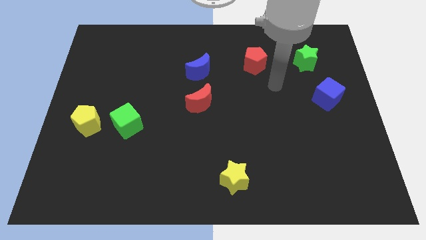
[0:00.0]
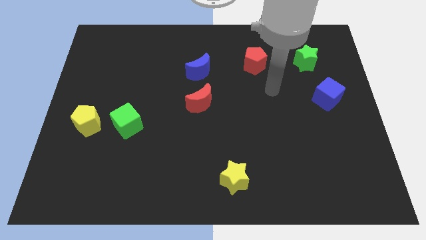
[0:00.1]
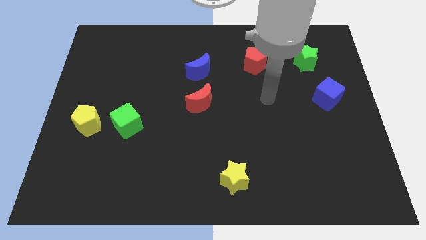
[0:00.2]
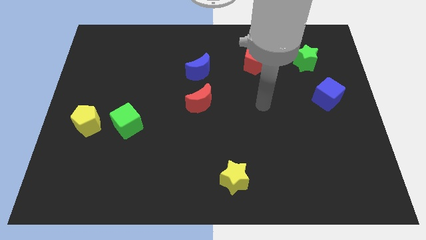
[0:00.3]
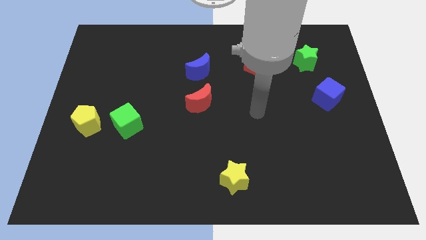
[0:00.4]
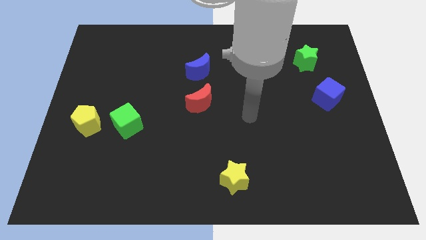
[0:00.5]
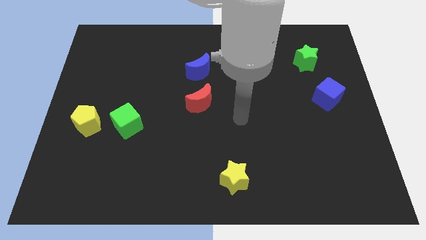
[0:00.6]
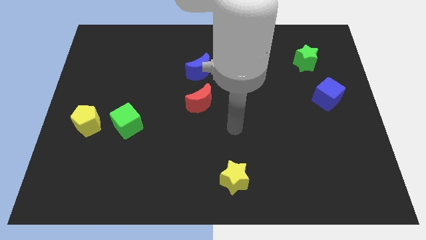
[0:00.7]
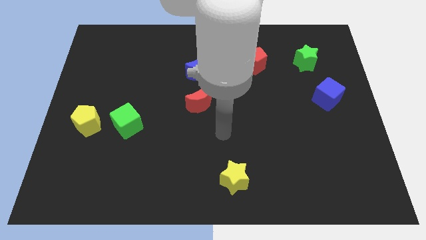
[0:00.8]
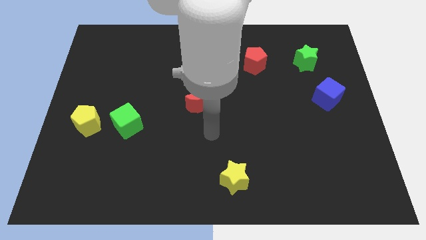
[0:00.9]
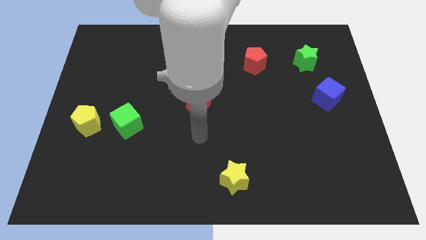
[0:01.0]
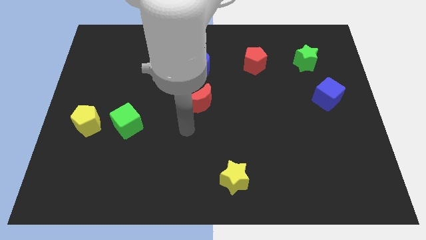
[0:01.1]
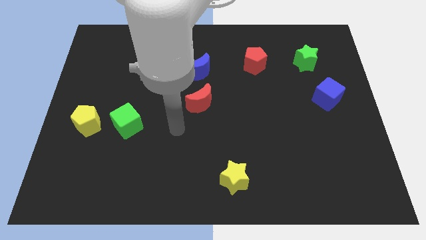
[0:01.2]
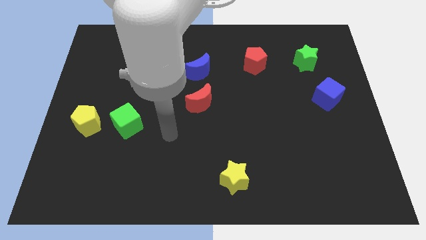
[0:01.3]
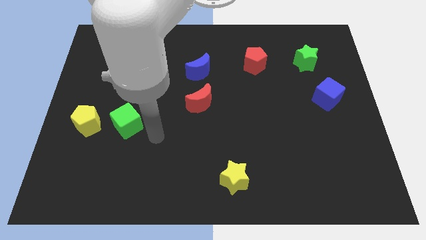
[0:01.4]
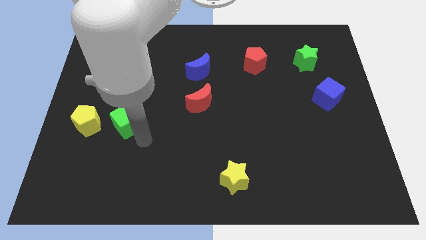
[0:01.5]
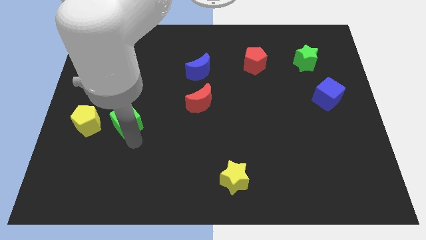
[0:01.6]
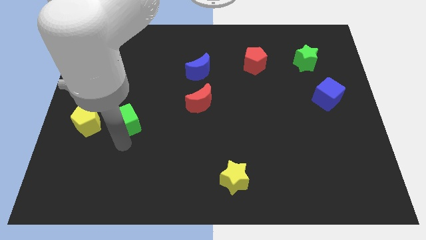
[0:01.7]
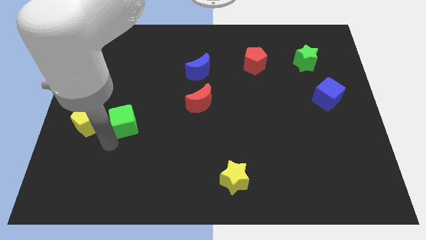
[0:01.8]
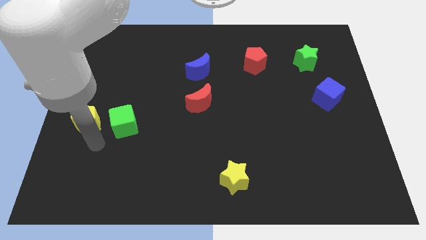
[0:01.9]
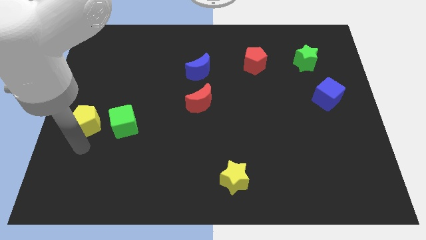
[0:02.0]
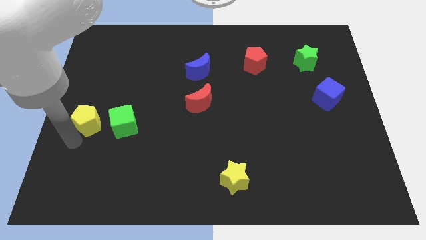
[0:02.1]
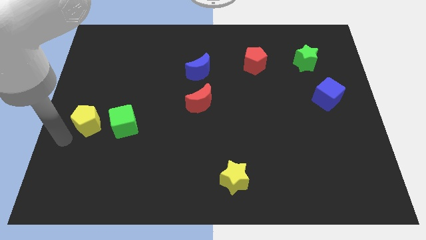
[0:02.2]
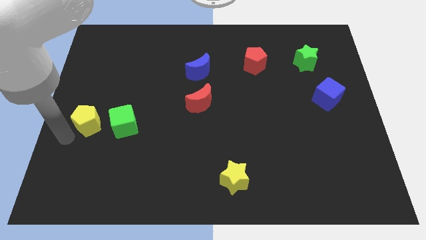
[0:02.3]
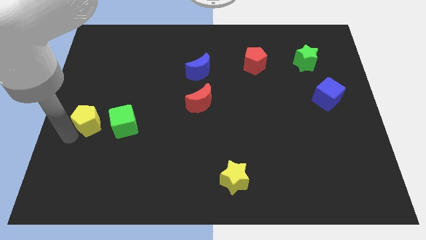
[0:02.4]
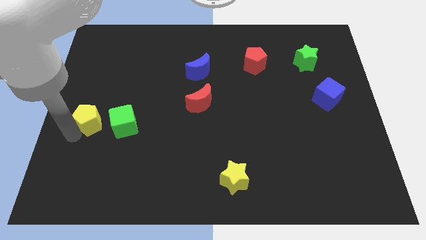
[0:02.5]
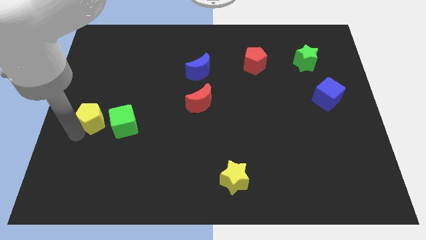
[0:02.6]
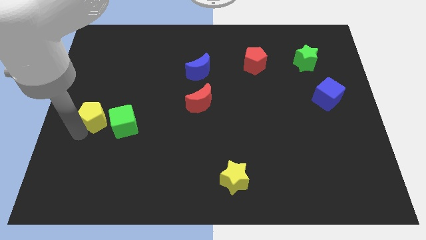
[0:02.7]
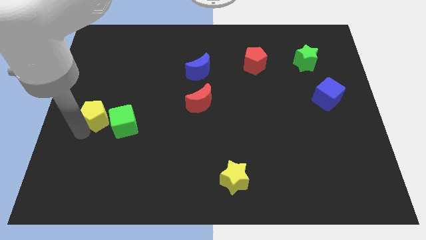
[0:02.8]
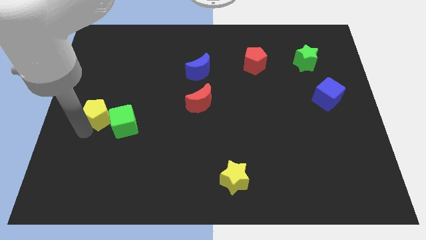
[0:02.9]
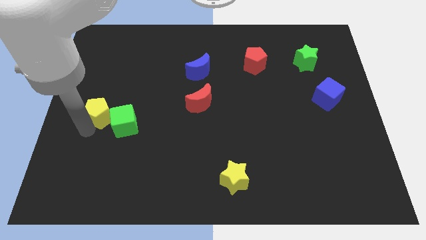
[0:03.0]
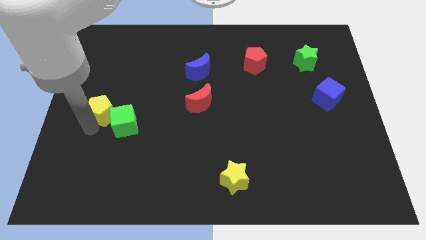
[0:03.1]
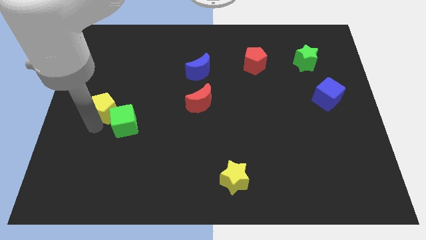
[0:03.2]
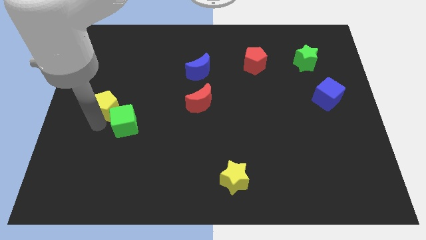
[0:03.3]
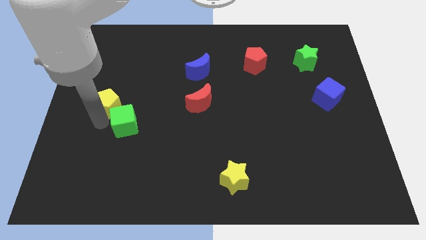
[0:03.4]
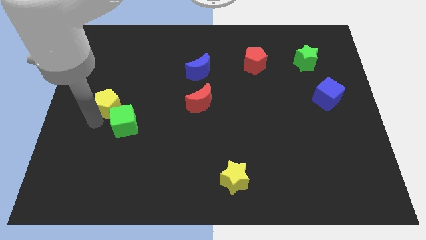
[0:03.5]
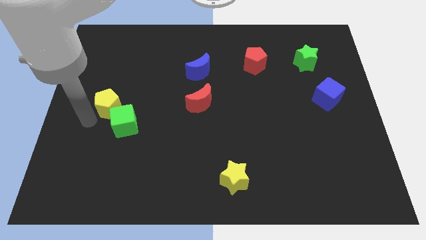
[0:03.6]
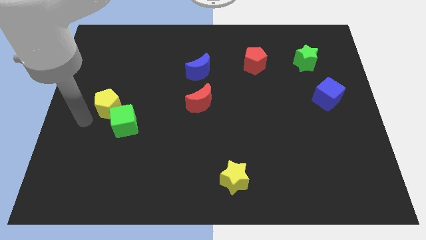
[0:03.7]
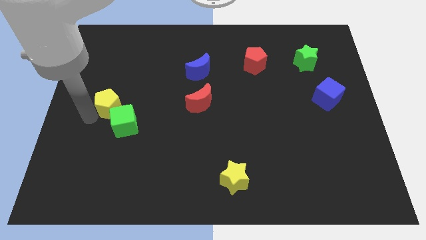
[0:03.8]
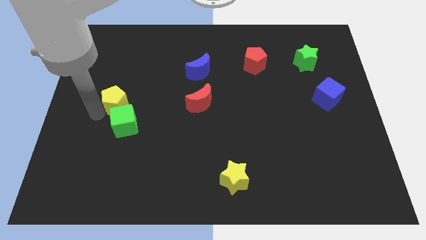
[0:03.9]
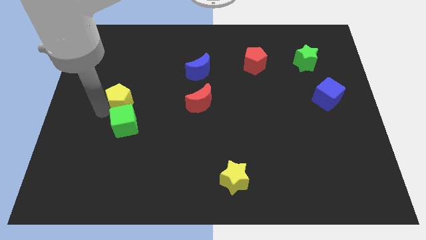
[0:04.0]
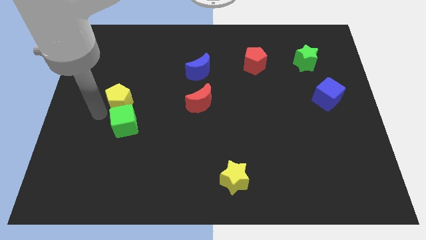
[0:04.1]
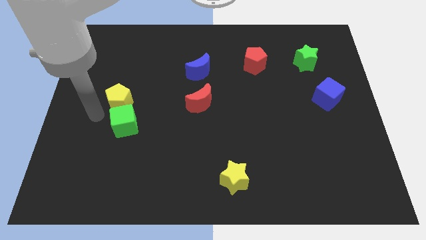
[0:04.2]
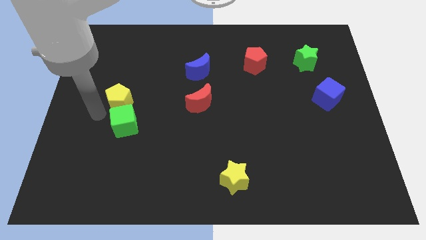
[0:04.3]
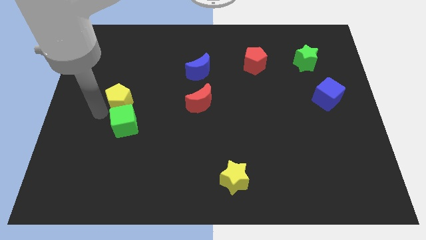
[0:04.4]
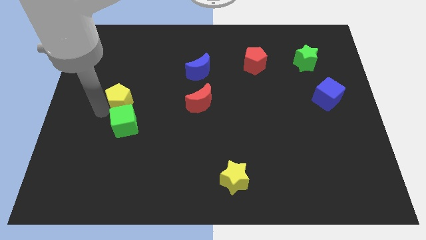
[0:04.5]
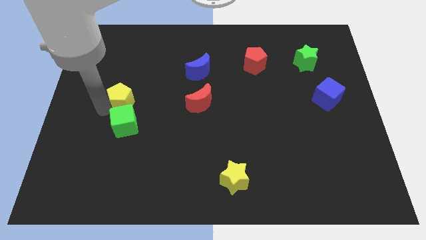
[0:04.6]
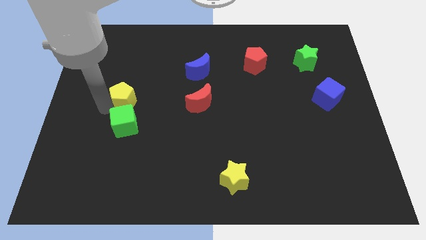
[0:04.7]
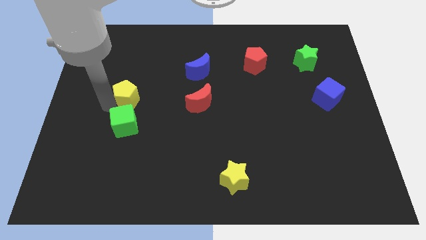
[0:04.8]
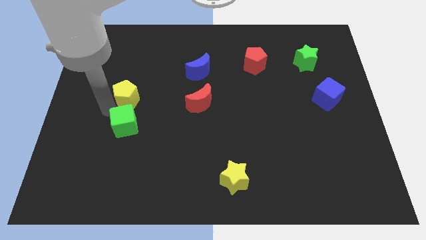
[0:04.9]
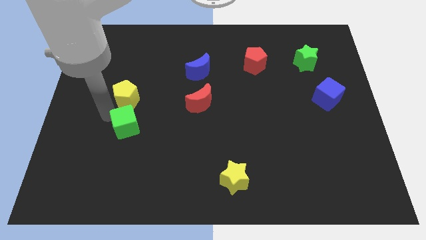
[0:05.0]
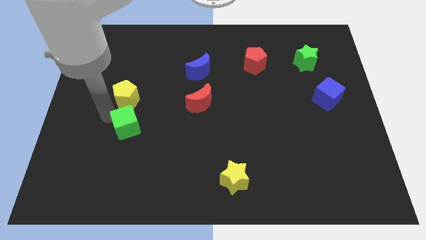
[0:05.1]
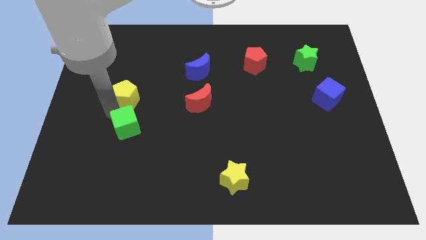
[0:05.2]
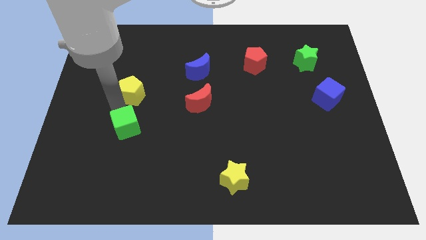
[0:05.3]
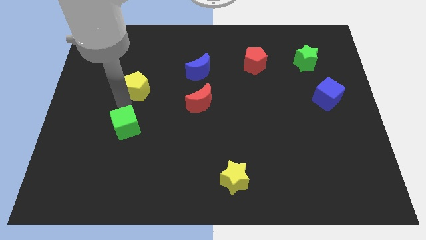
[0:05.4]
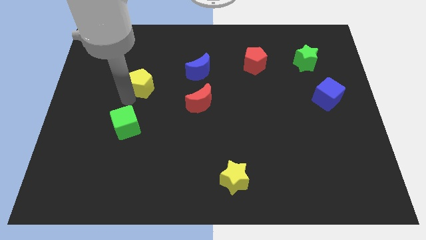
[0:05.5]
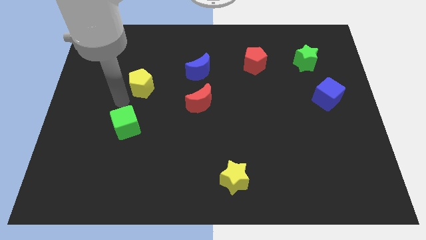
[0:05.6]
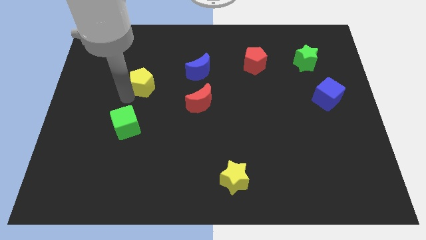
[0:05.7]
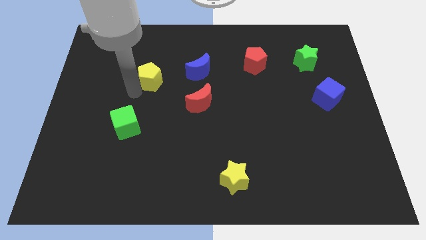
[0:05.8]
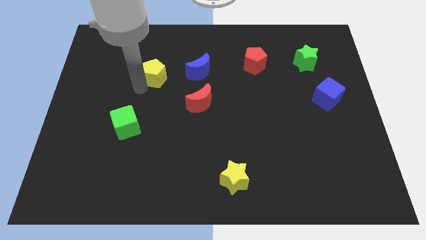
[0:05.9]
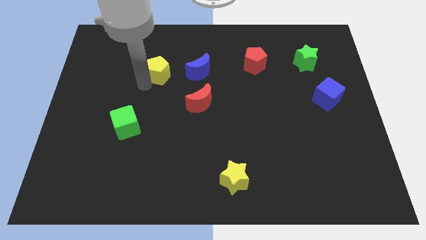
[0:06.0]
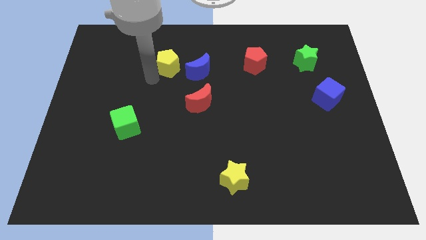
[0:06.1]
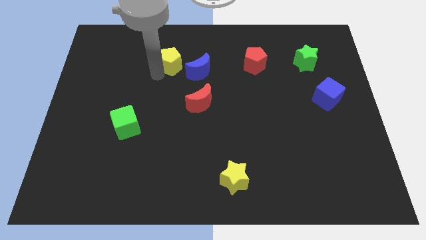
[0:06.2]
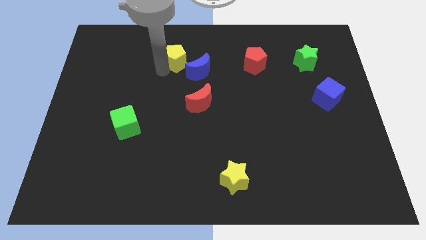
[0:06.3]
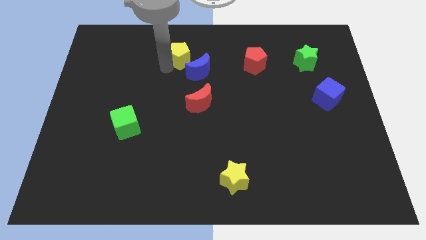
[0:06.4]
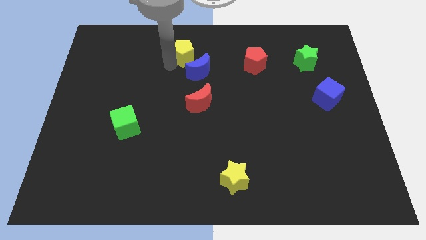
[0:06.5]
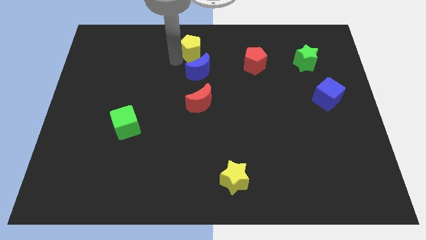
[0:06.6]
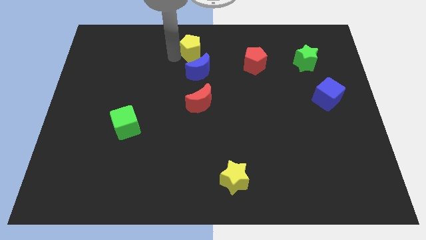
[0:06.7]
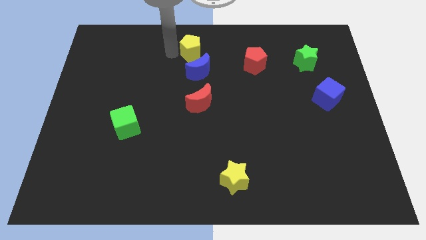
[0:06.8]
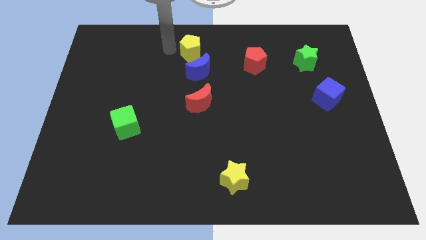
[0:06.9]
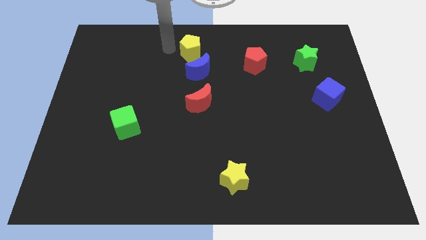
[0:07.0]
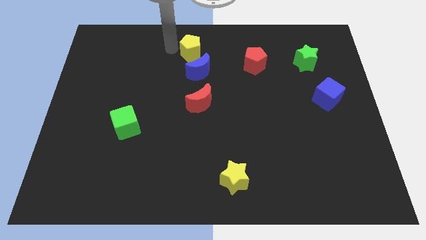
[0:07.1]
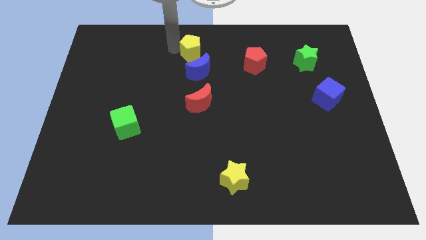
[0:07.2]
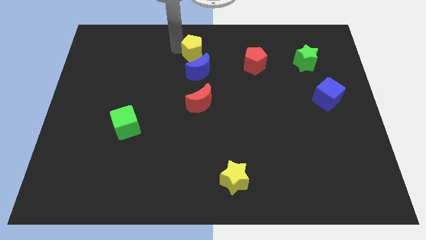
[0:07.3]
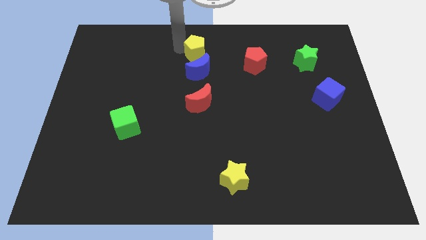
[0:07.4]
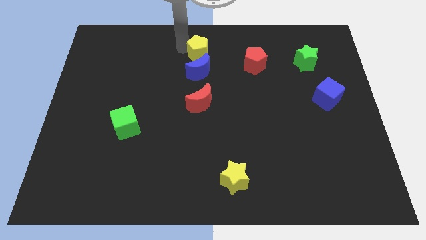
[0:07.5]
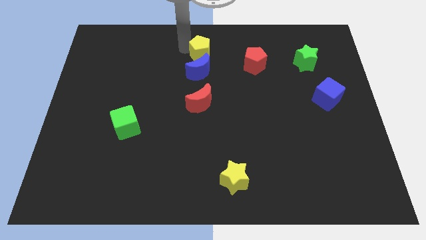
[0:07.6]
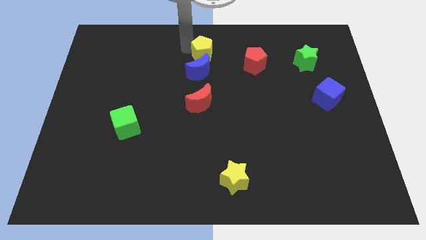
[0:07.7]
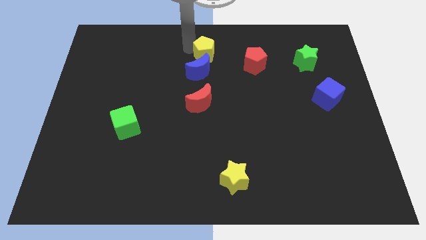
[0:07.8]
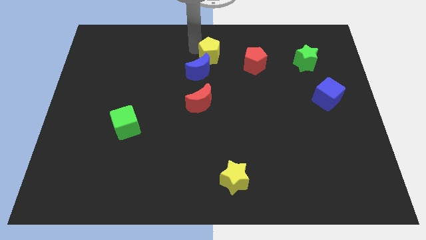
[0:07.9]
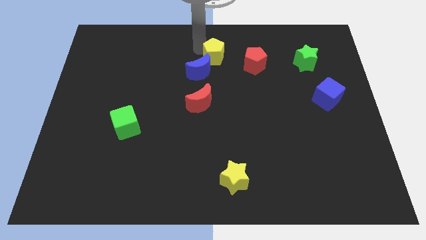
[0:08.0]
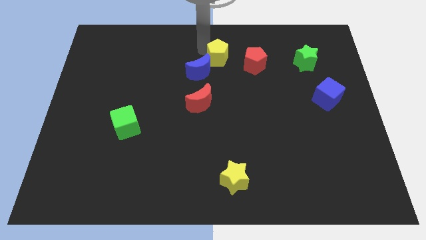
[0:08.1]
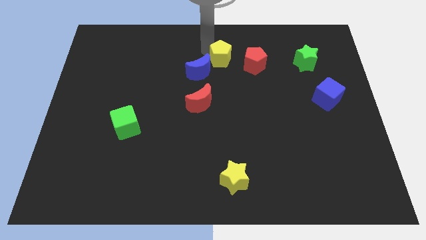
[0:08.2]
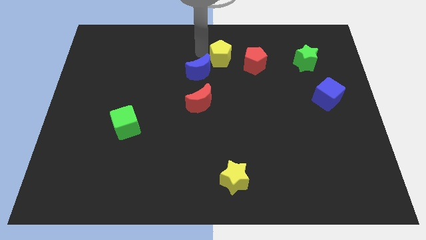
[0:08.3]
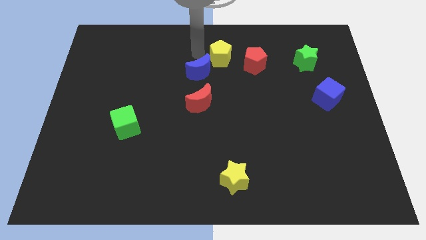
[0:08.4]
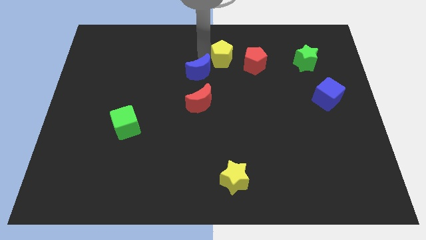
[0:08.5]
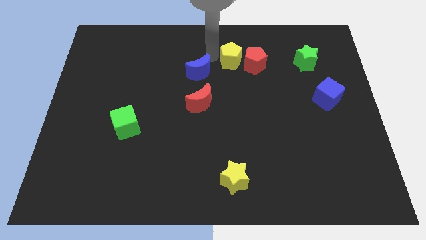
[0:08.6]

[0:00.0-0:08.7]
slide the yellow pentagon close to the red pentagon
